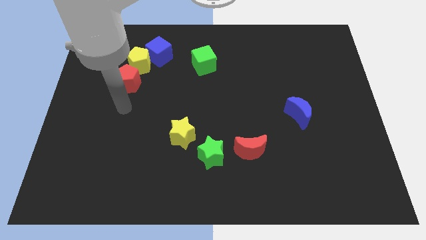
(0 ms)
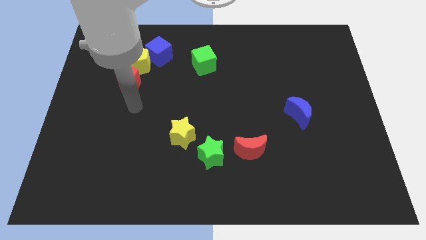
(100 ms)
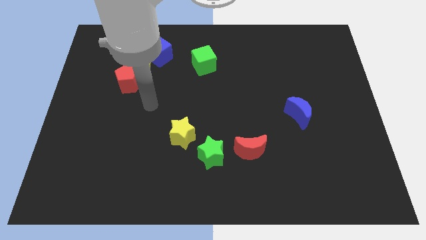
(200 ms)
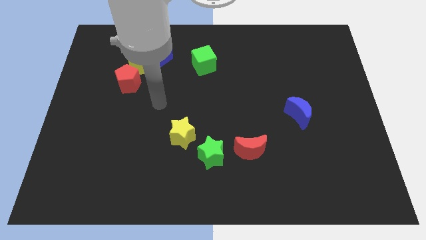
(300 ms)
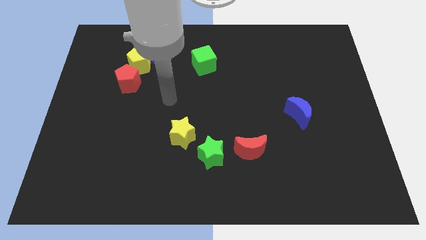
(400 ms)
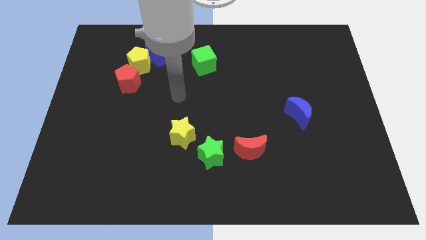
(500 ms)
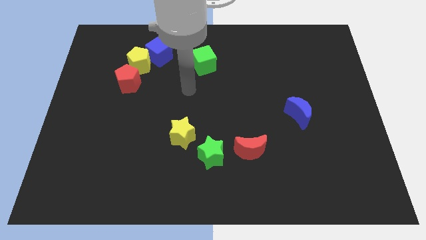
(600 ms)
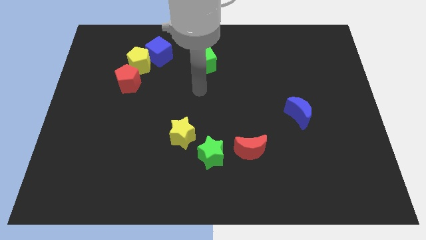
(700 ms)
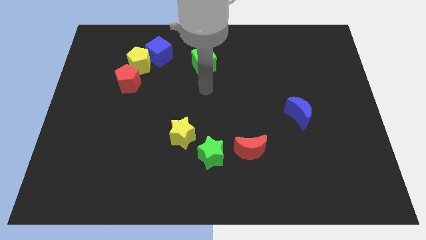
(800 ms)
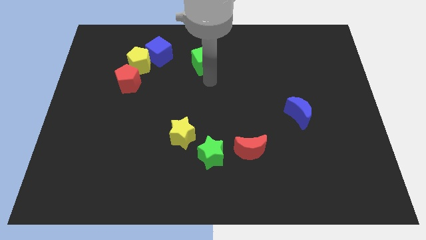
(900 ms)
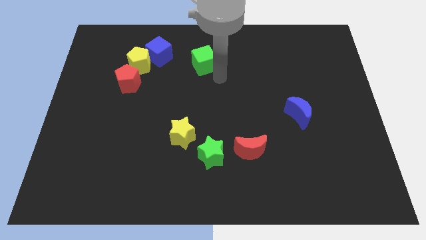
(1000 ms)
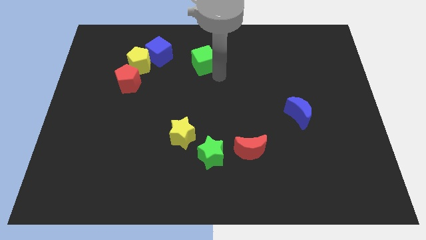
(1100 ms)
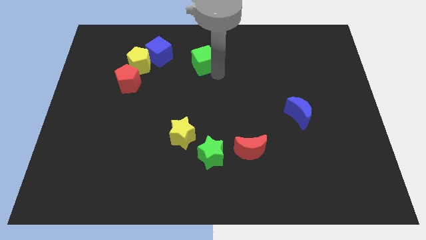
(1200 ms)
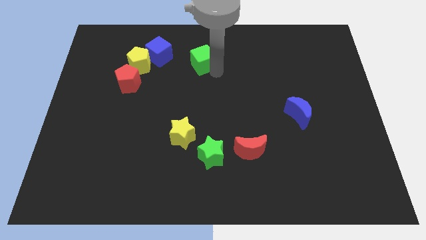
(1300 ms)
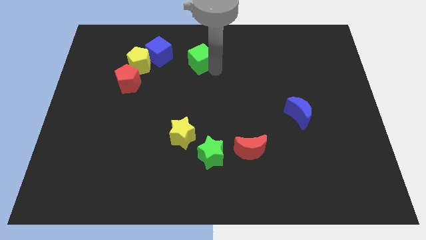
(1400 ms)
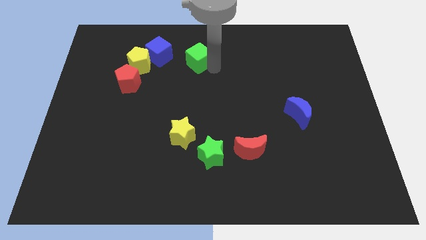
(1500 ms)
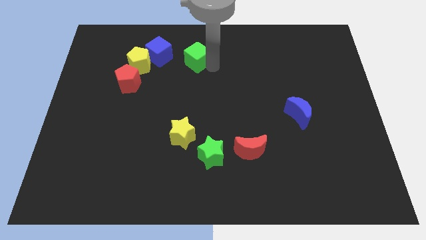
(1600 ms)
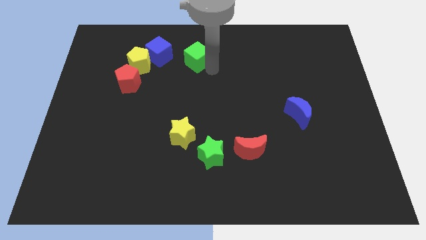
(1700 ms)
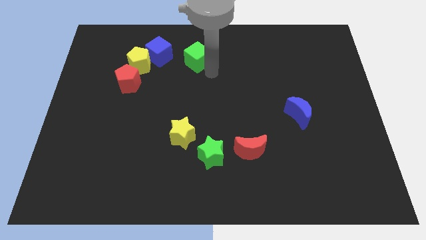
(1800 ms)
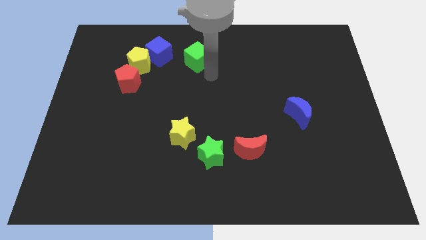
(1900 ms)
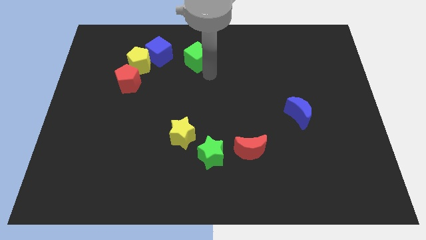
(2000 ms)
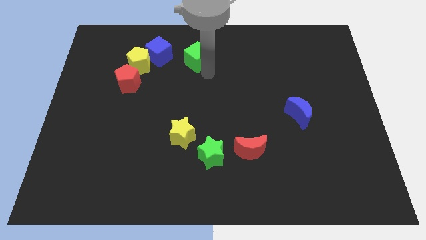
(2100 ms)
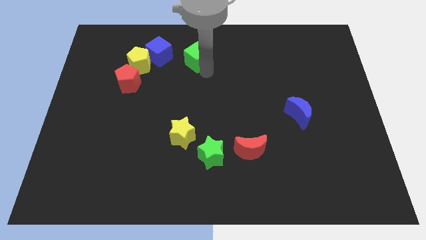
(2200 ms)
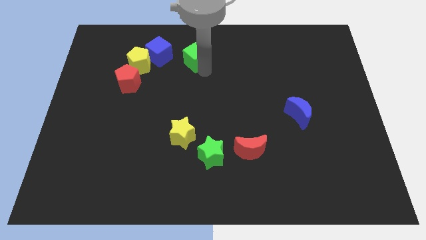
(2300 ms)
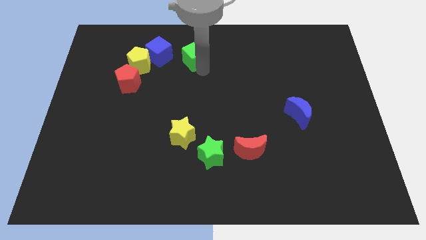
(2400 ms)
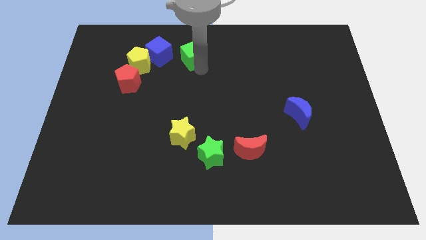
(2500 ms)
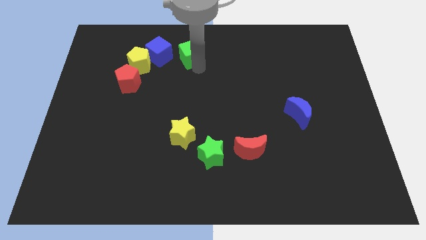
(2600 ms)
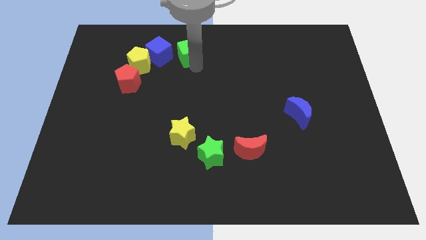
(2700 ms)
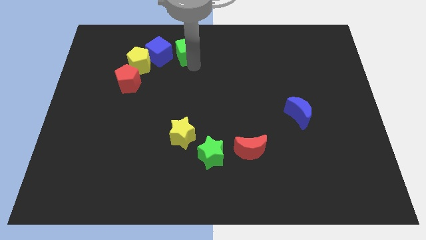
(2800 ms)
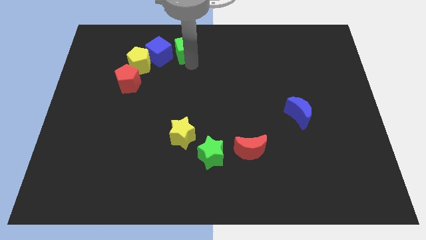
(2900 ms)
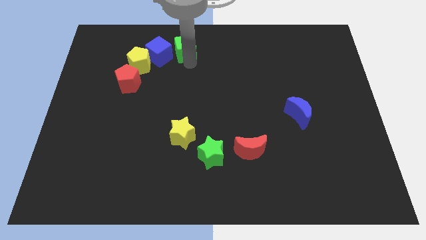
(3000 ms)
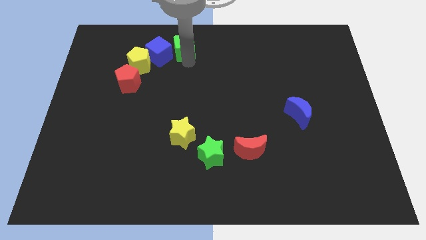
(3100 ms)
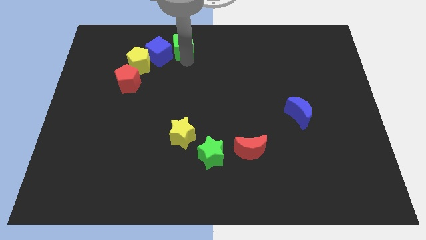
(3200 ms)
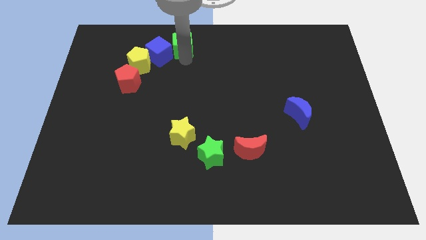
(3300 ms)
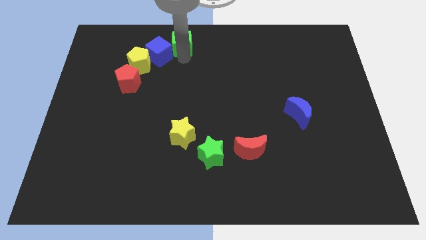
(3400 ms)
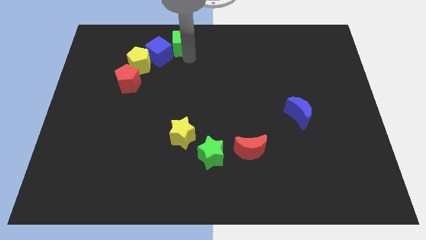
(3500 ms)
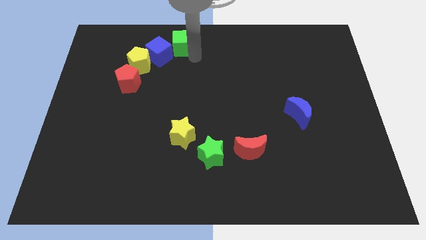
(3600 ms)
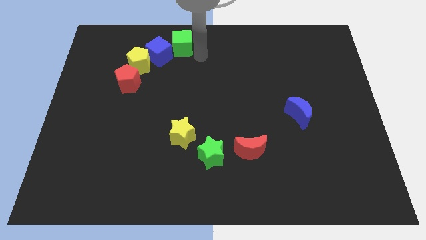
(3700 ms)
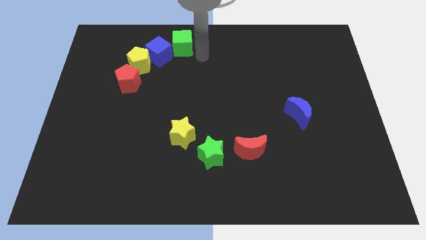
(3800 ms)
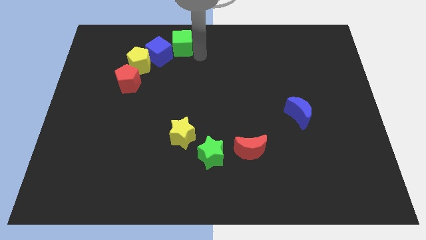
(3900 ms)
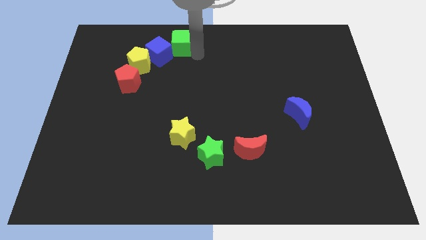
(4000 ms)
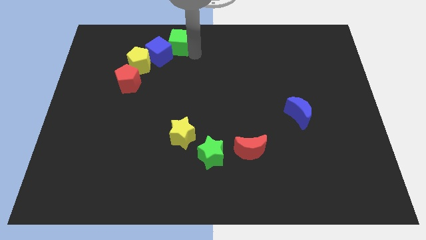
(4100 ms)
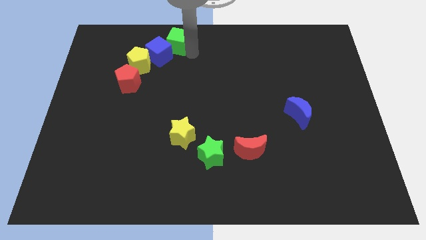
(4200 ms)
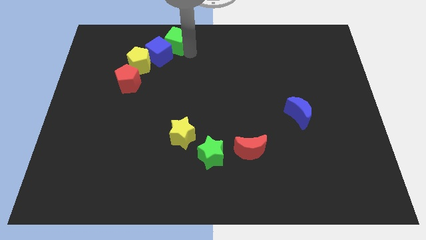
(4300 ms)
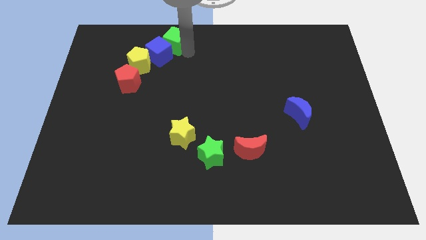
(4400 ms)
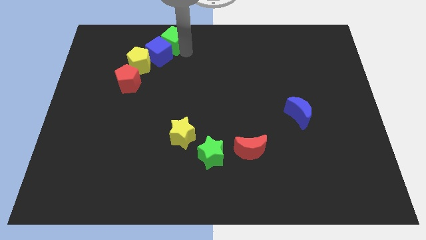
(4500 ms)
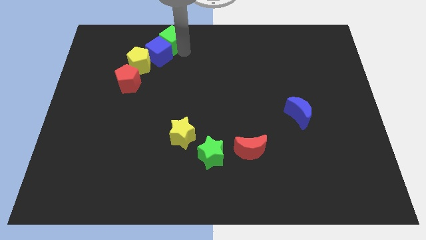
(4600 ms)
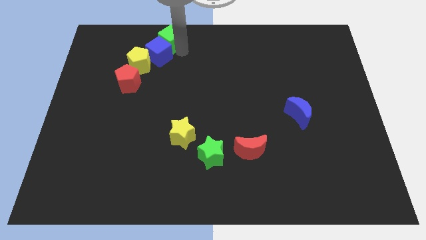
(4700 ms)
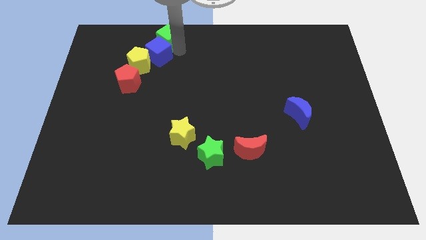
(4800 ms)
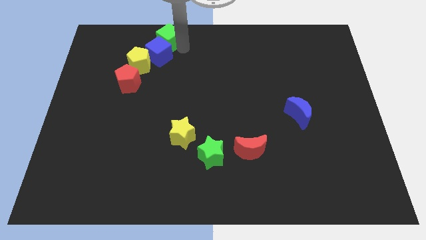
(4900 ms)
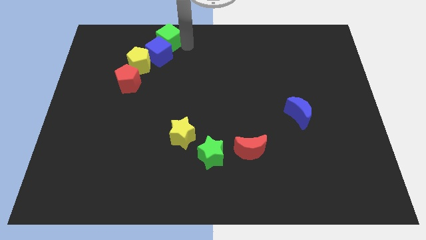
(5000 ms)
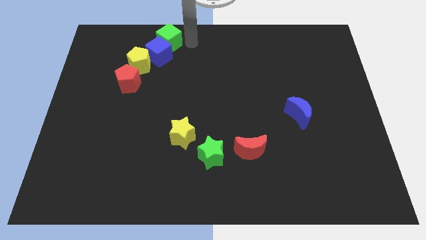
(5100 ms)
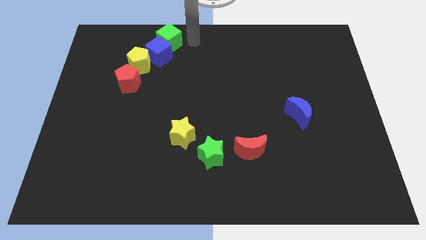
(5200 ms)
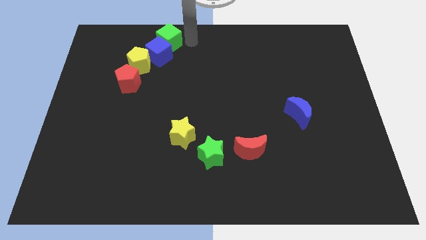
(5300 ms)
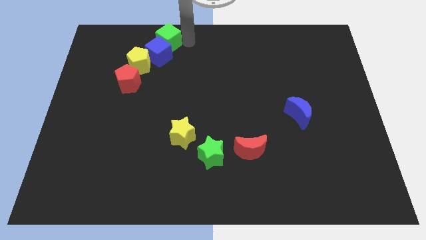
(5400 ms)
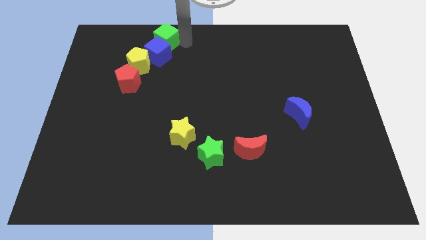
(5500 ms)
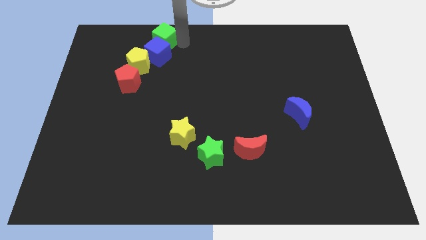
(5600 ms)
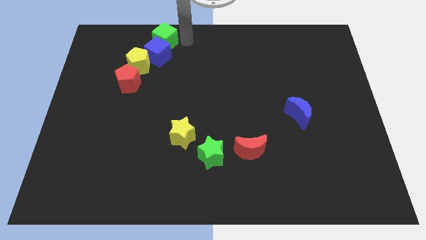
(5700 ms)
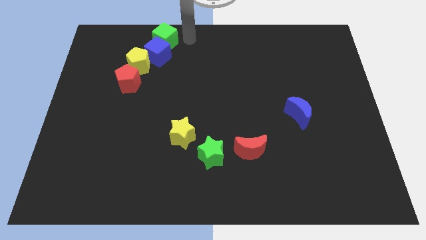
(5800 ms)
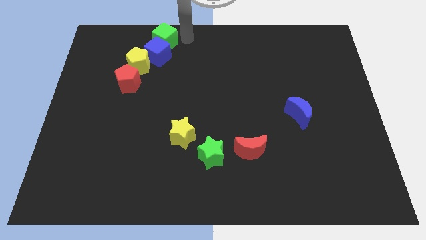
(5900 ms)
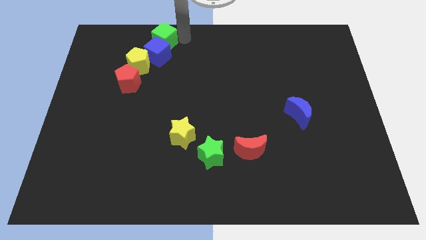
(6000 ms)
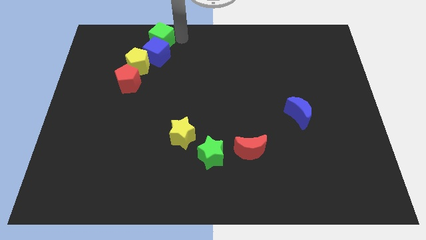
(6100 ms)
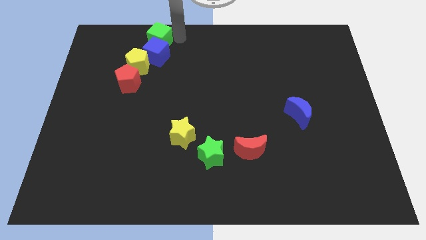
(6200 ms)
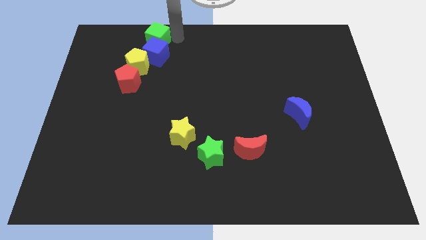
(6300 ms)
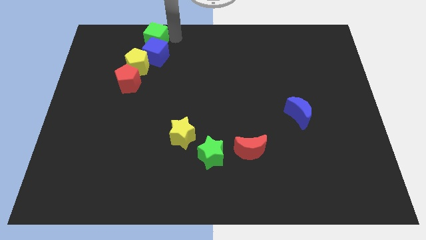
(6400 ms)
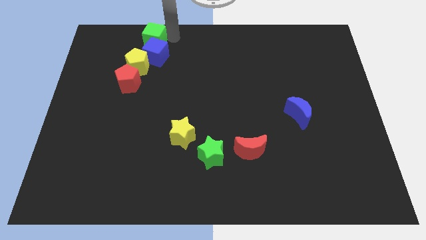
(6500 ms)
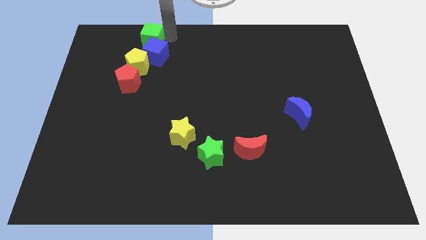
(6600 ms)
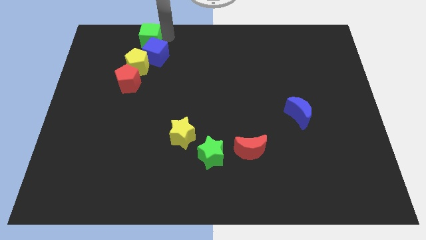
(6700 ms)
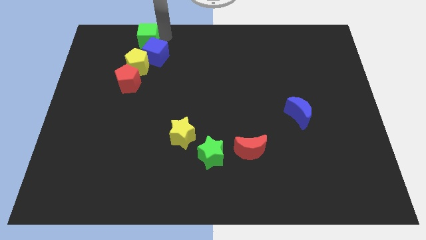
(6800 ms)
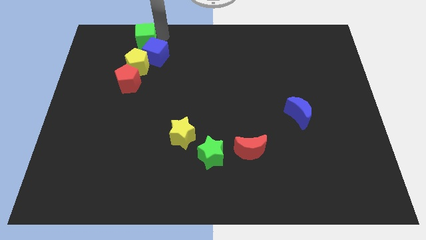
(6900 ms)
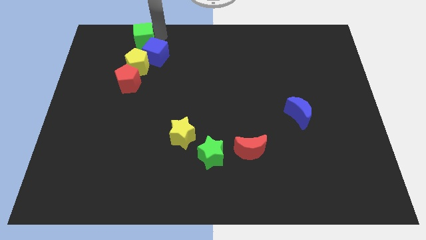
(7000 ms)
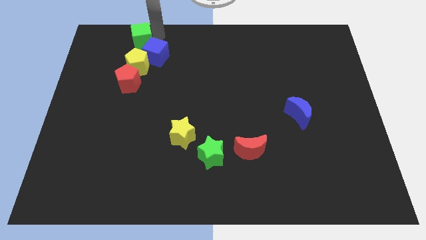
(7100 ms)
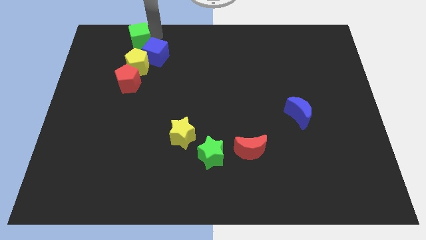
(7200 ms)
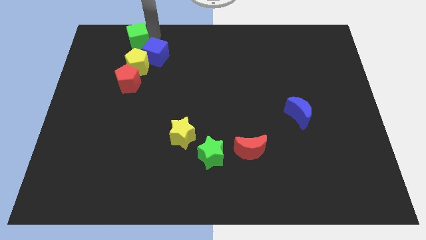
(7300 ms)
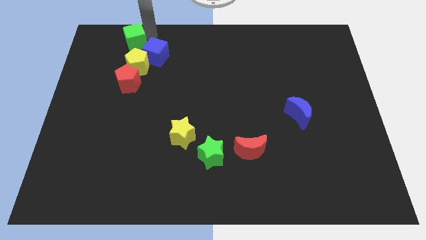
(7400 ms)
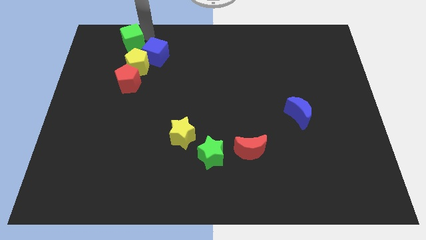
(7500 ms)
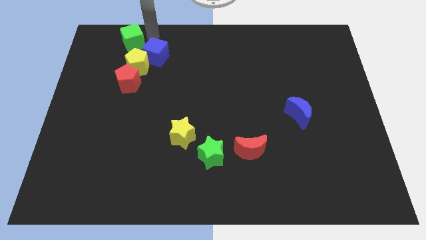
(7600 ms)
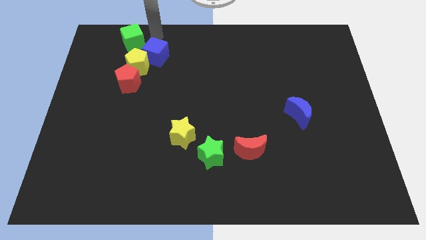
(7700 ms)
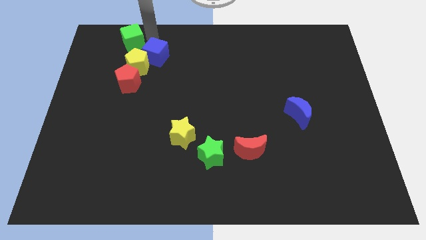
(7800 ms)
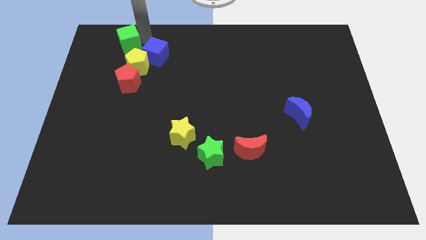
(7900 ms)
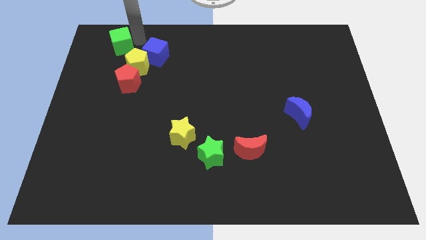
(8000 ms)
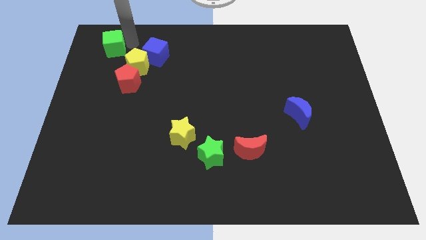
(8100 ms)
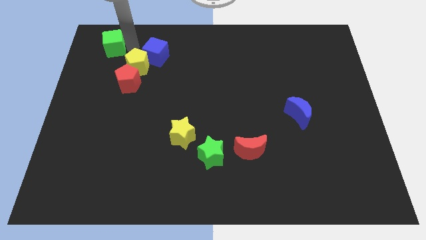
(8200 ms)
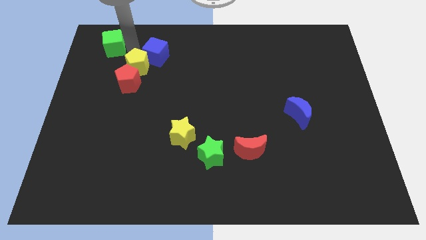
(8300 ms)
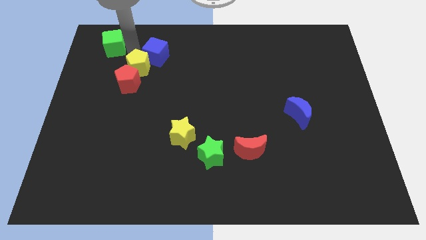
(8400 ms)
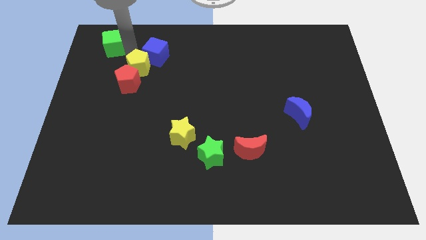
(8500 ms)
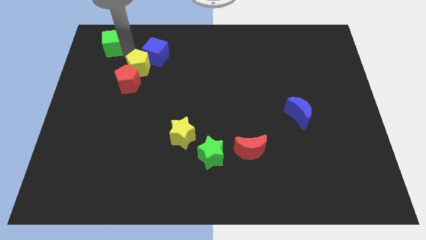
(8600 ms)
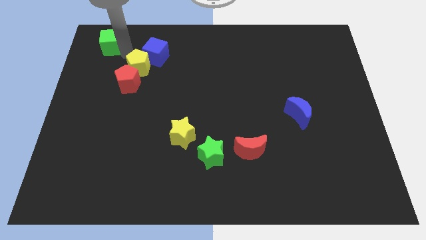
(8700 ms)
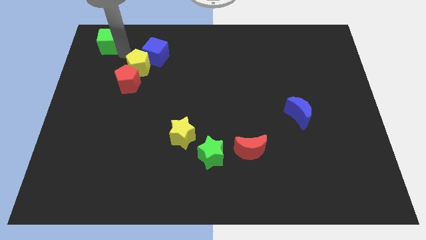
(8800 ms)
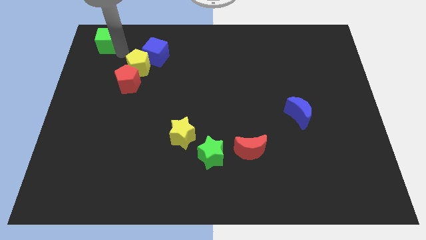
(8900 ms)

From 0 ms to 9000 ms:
slide the green cube to the top left of the board
